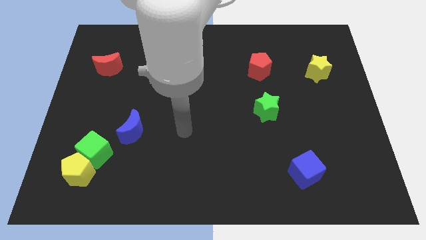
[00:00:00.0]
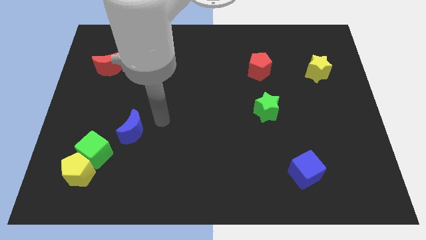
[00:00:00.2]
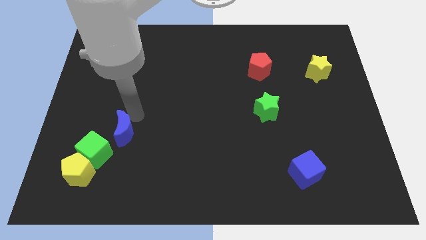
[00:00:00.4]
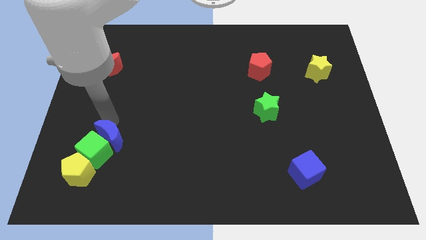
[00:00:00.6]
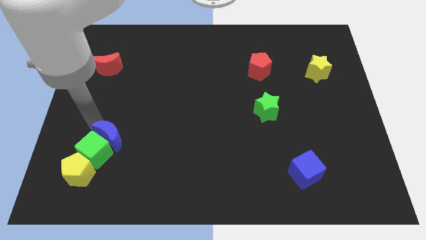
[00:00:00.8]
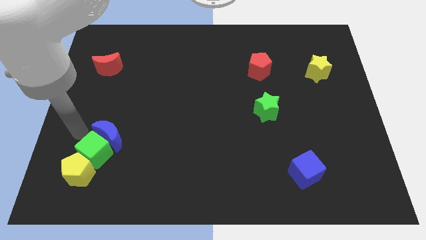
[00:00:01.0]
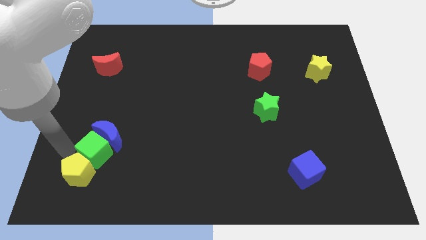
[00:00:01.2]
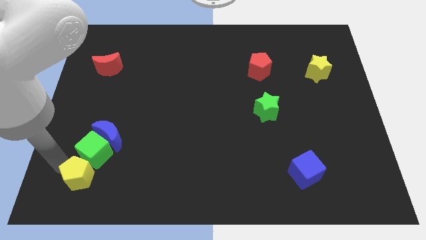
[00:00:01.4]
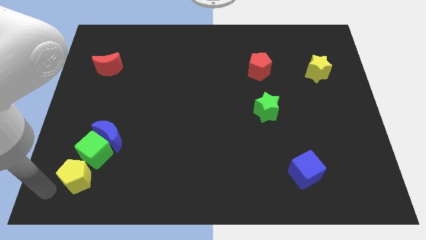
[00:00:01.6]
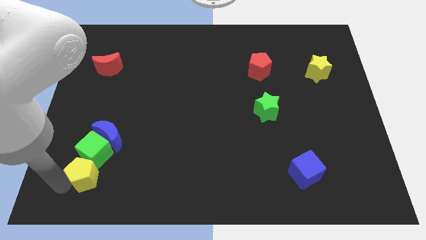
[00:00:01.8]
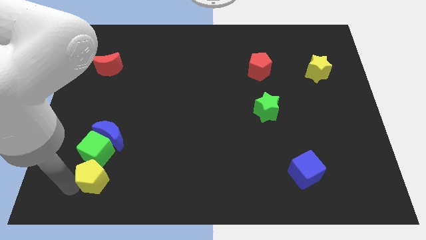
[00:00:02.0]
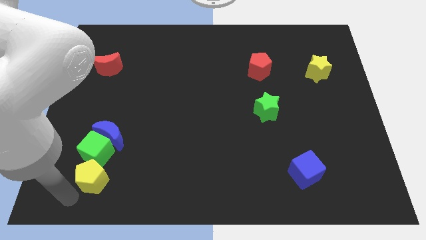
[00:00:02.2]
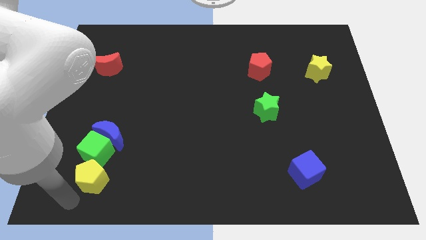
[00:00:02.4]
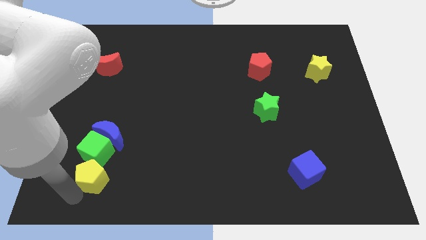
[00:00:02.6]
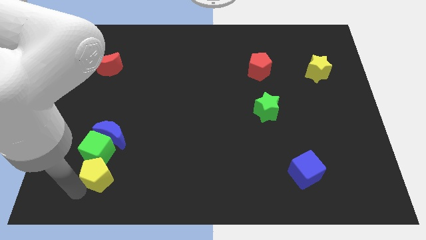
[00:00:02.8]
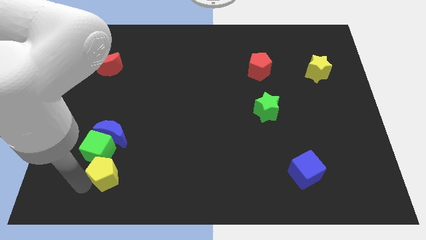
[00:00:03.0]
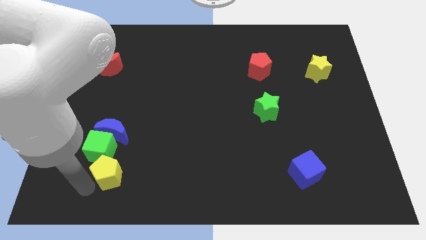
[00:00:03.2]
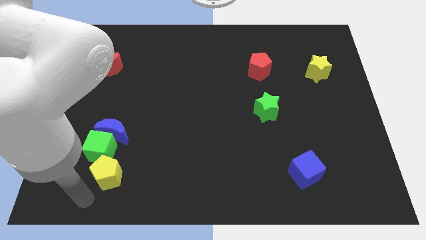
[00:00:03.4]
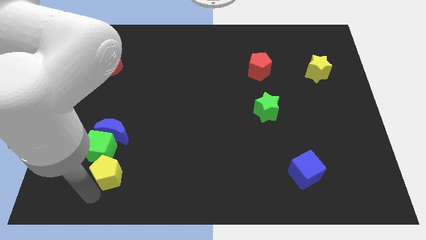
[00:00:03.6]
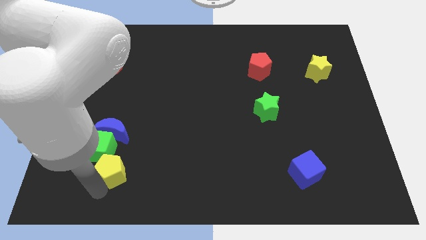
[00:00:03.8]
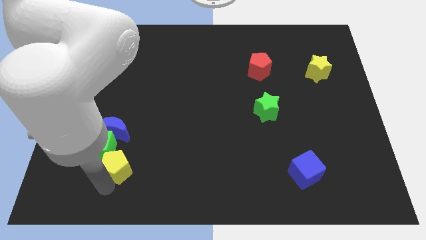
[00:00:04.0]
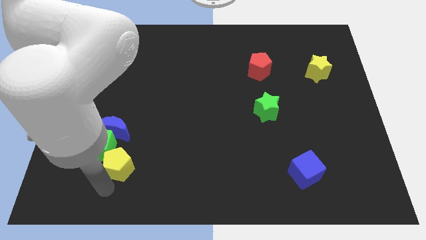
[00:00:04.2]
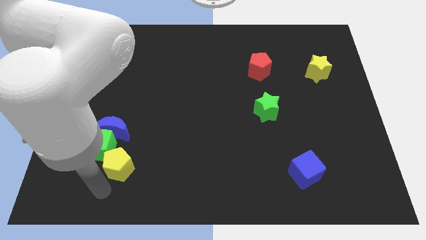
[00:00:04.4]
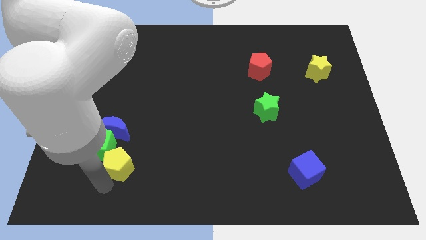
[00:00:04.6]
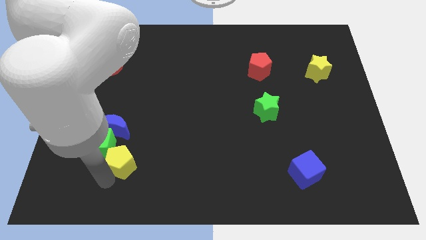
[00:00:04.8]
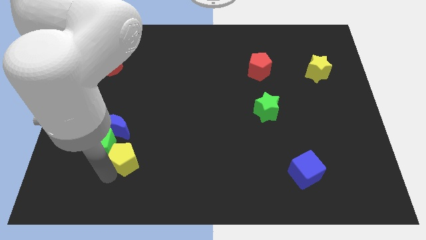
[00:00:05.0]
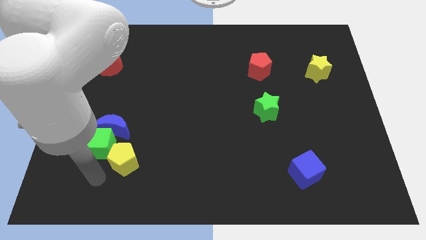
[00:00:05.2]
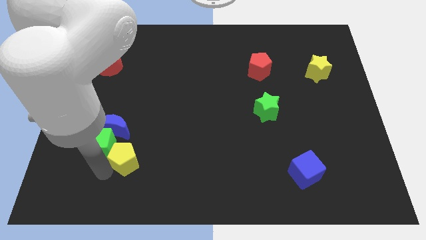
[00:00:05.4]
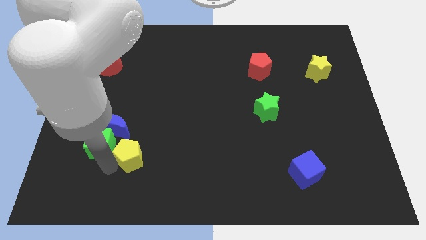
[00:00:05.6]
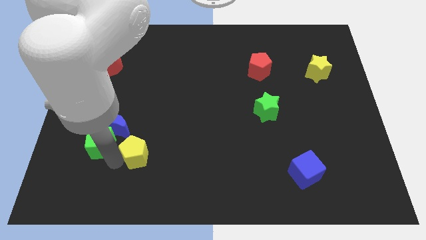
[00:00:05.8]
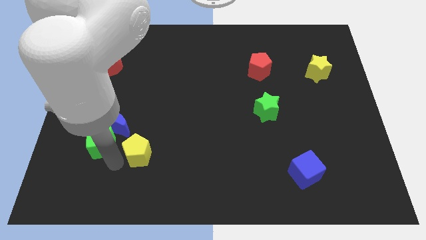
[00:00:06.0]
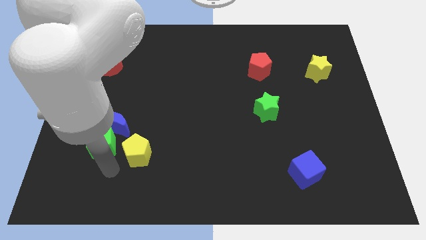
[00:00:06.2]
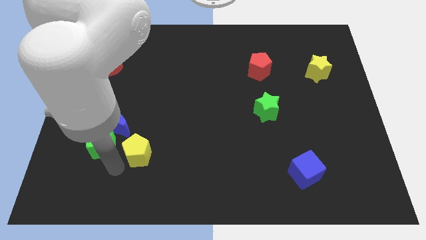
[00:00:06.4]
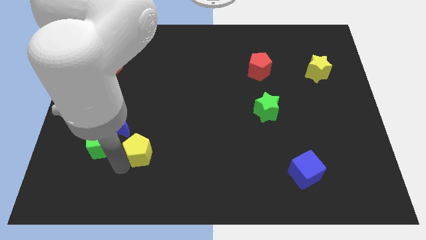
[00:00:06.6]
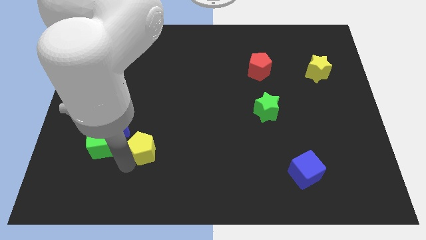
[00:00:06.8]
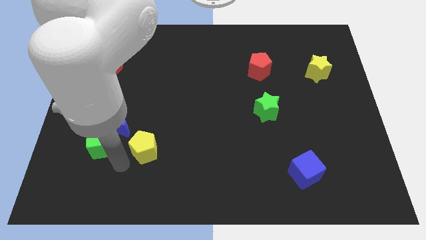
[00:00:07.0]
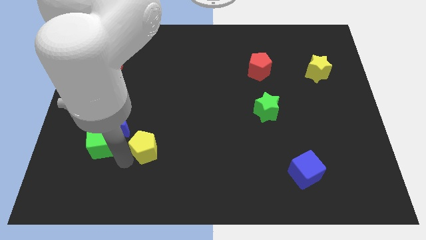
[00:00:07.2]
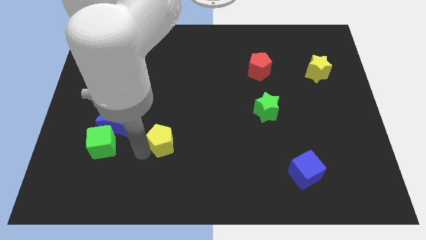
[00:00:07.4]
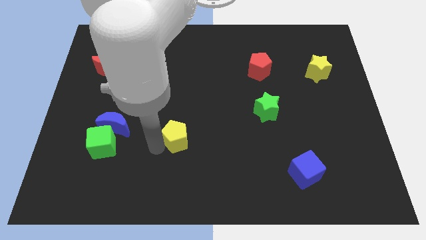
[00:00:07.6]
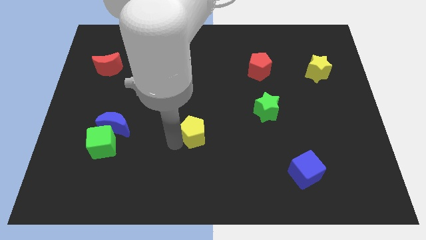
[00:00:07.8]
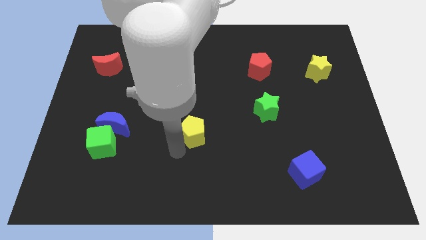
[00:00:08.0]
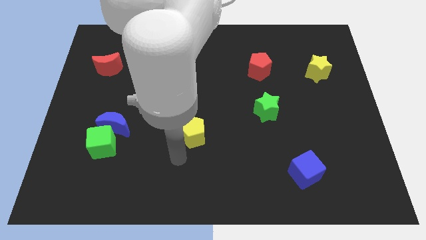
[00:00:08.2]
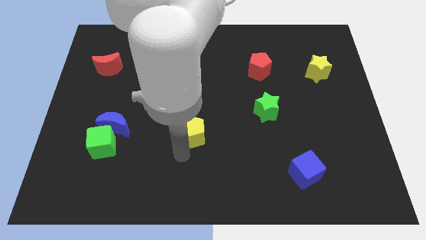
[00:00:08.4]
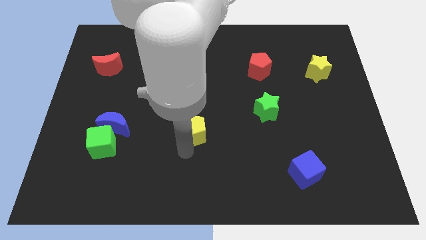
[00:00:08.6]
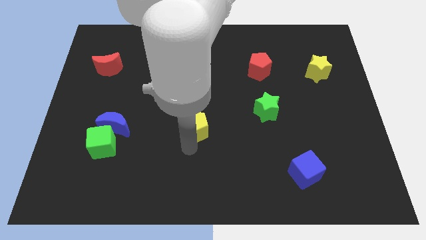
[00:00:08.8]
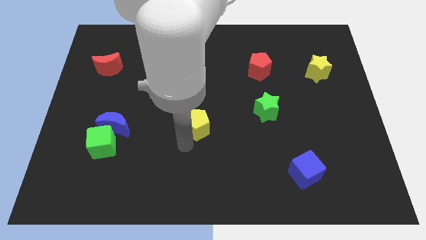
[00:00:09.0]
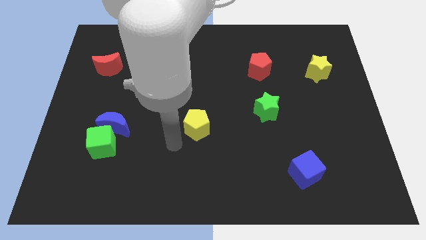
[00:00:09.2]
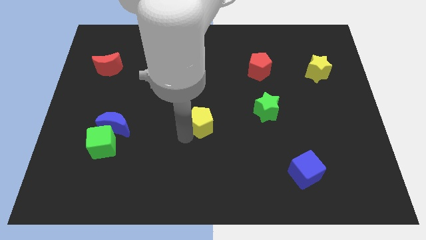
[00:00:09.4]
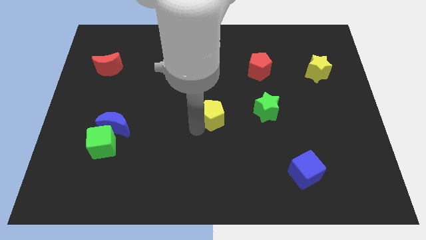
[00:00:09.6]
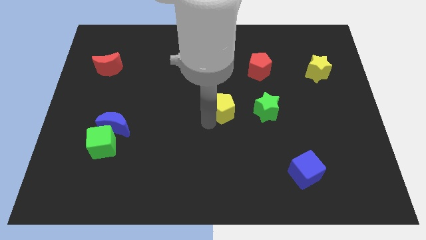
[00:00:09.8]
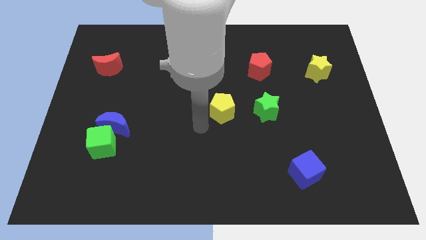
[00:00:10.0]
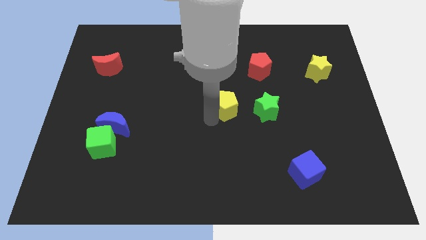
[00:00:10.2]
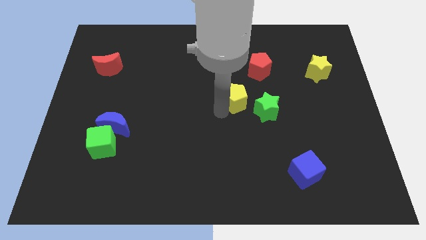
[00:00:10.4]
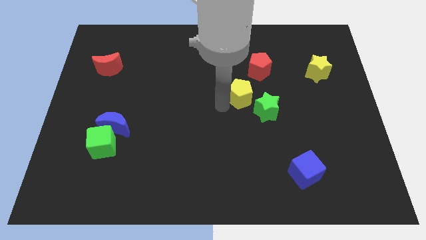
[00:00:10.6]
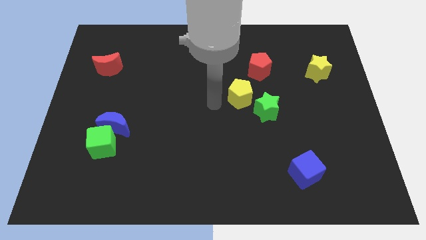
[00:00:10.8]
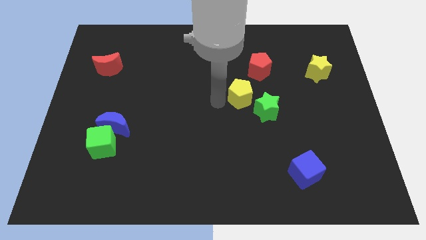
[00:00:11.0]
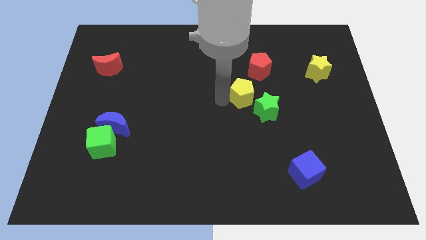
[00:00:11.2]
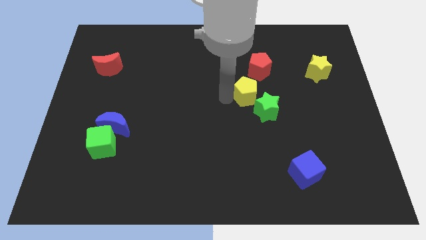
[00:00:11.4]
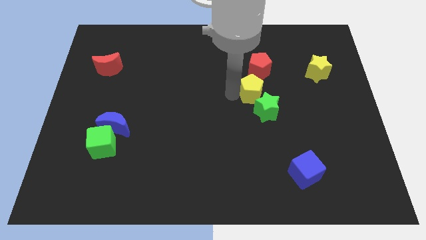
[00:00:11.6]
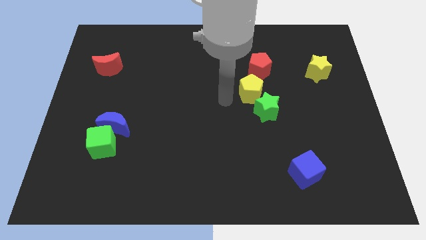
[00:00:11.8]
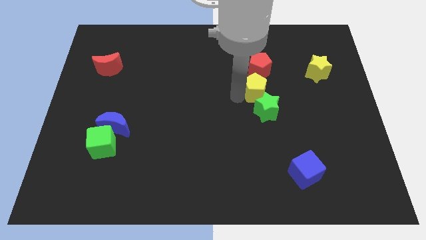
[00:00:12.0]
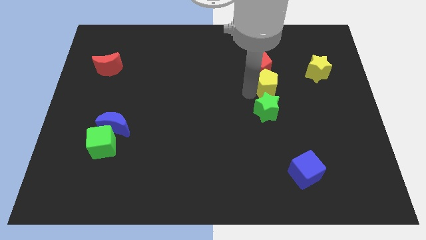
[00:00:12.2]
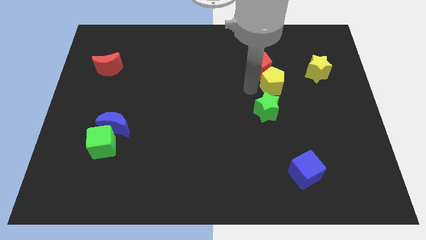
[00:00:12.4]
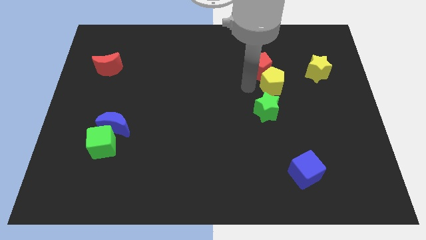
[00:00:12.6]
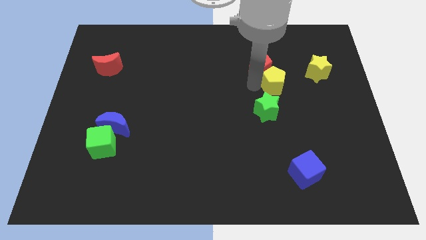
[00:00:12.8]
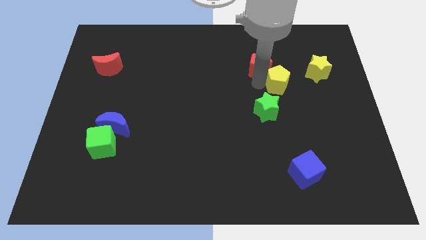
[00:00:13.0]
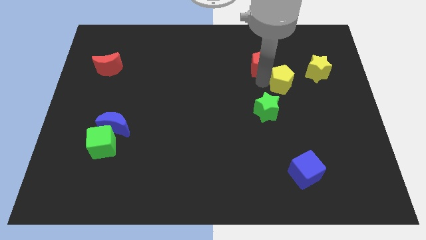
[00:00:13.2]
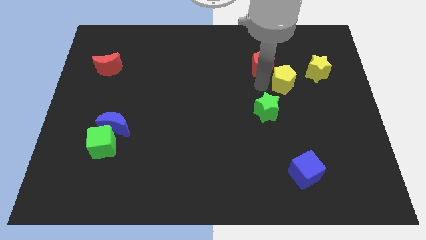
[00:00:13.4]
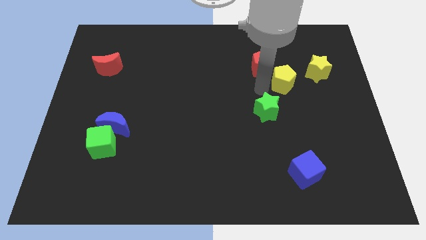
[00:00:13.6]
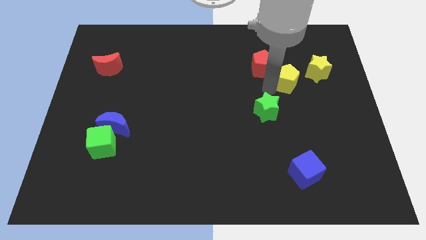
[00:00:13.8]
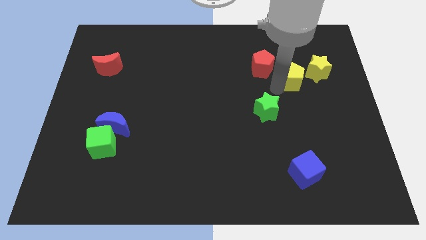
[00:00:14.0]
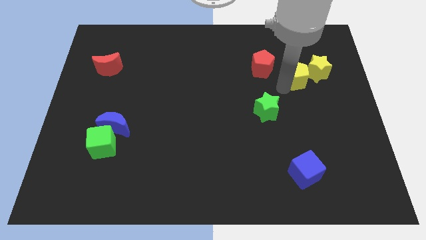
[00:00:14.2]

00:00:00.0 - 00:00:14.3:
move the yellow pentagon to the yellow star
